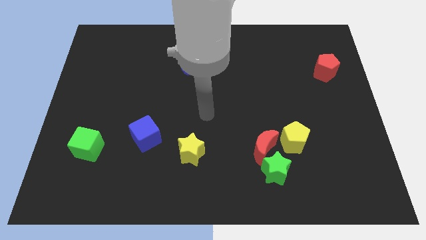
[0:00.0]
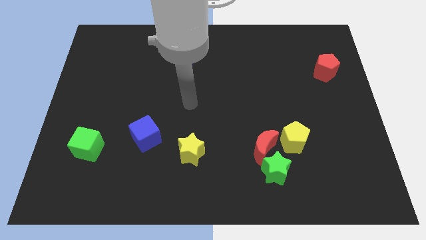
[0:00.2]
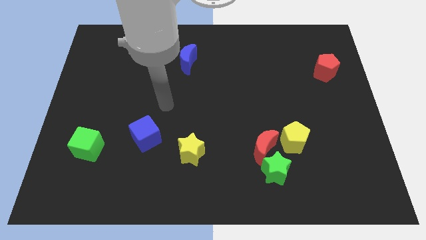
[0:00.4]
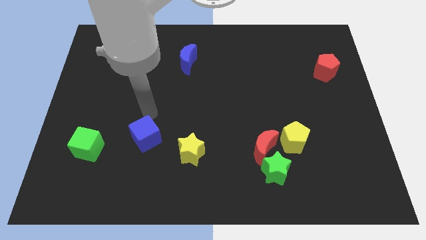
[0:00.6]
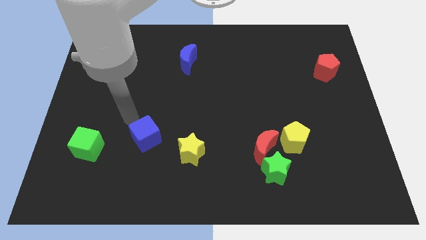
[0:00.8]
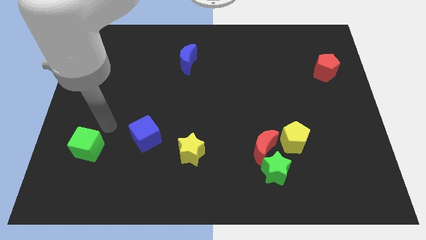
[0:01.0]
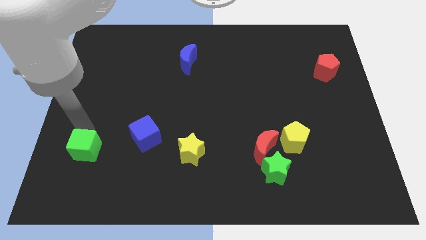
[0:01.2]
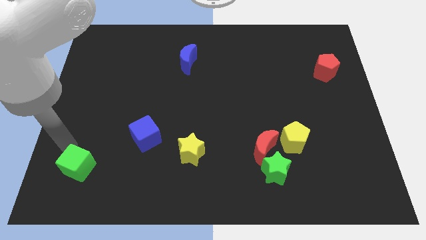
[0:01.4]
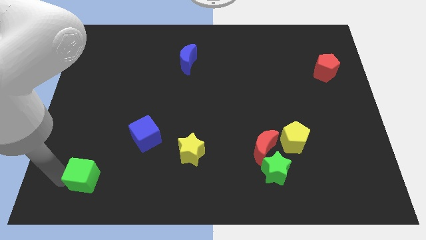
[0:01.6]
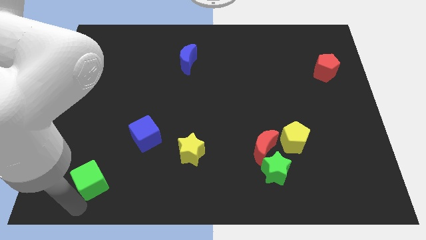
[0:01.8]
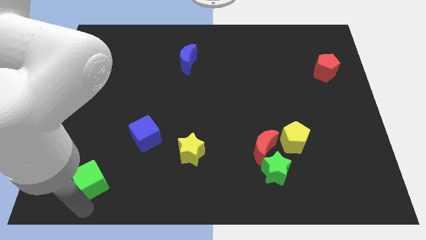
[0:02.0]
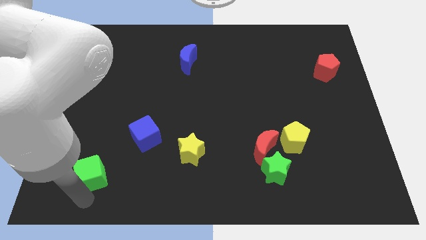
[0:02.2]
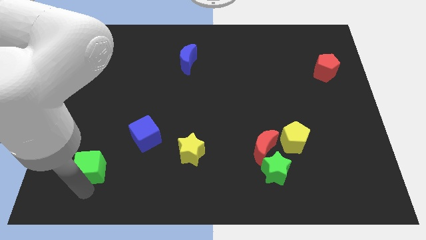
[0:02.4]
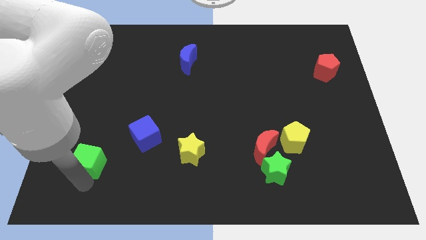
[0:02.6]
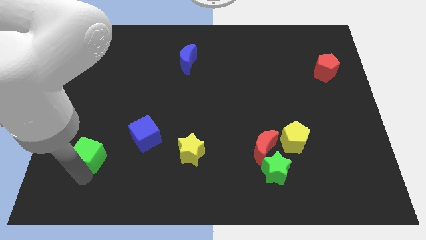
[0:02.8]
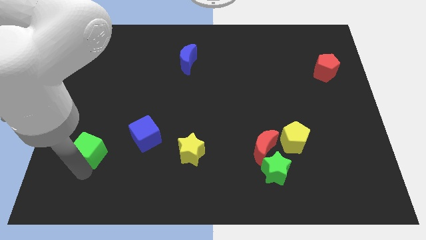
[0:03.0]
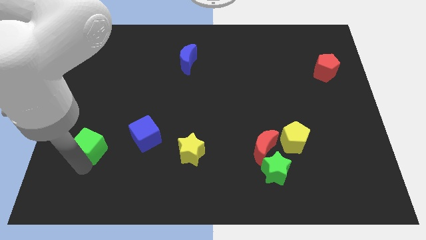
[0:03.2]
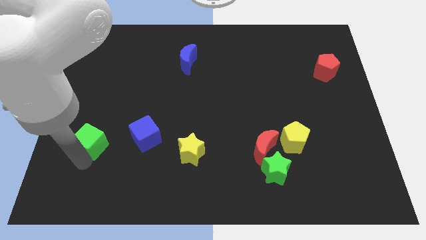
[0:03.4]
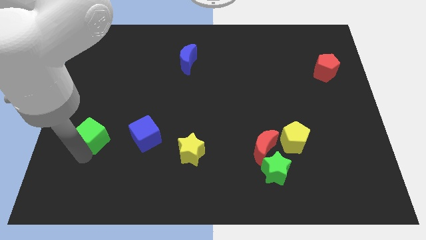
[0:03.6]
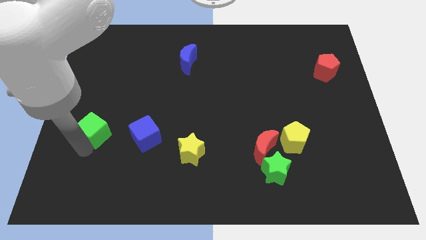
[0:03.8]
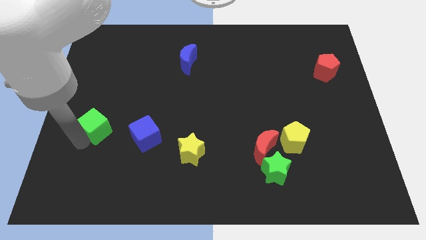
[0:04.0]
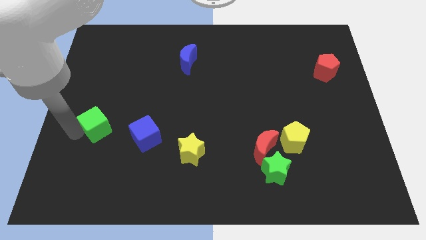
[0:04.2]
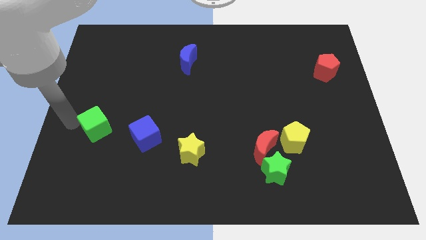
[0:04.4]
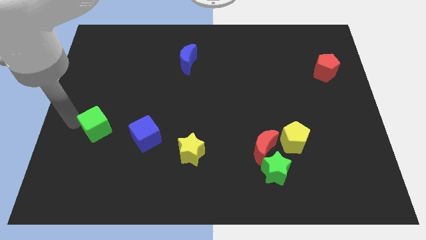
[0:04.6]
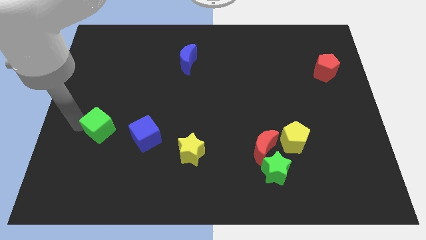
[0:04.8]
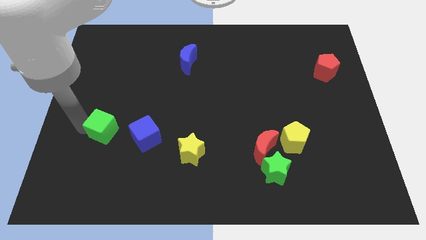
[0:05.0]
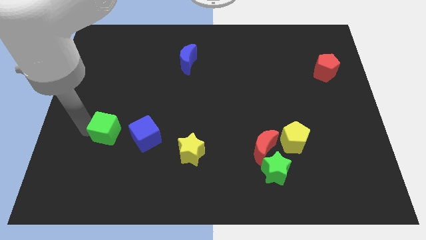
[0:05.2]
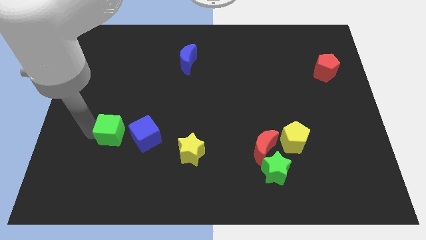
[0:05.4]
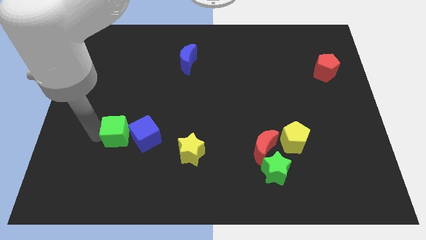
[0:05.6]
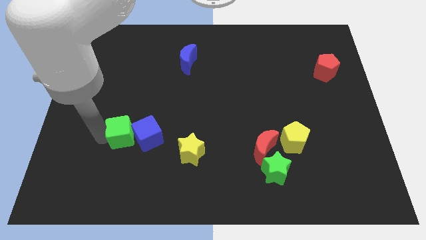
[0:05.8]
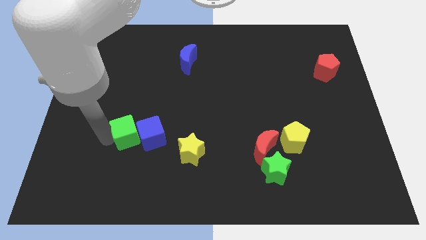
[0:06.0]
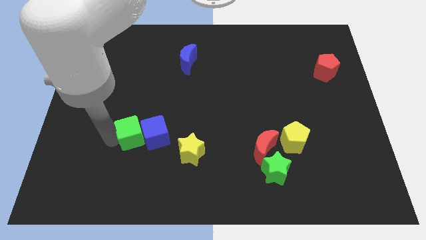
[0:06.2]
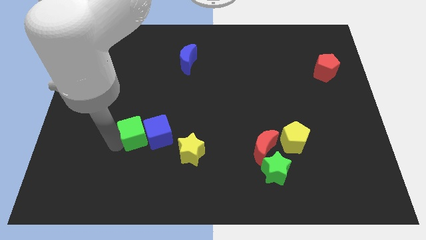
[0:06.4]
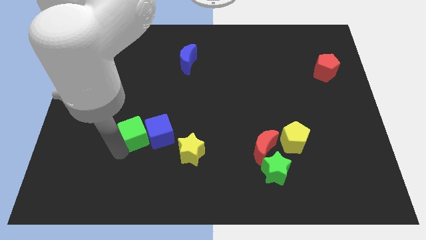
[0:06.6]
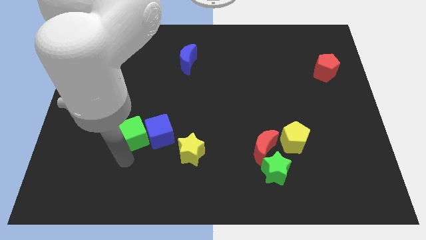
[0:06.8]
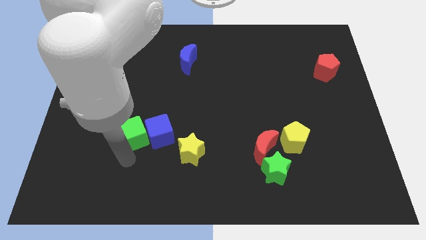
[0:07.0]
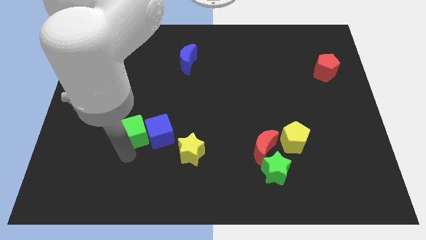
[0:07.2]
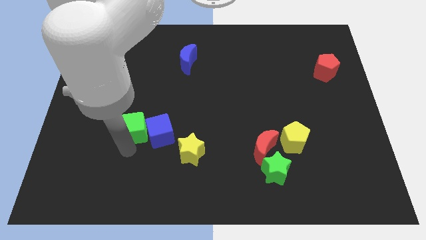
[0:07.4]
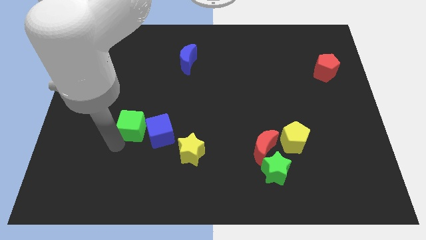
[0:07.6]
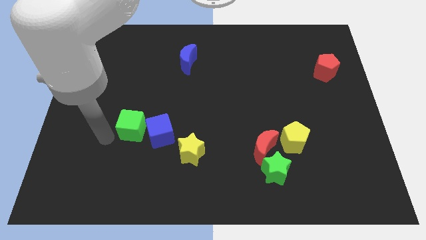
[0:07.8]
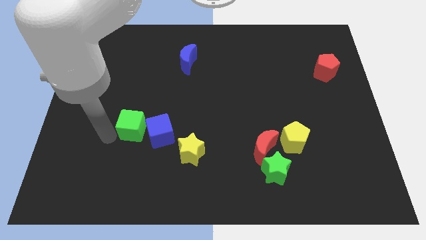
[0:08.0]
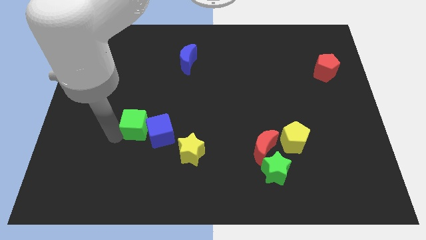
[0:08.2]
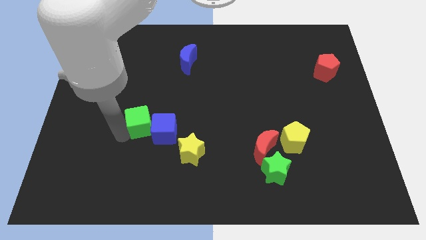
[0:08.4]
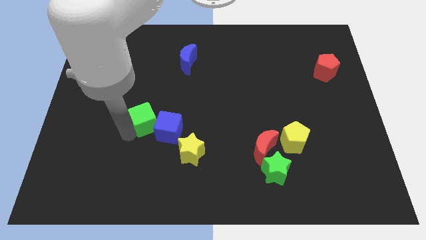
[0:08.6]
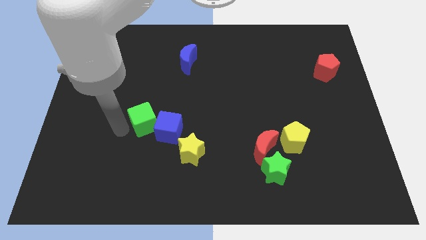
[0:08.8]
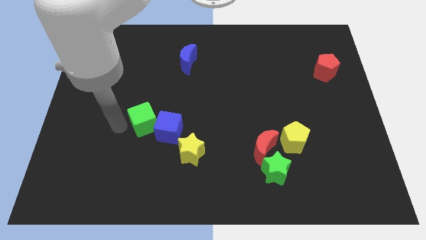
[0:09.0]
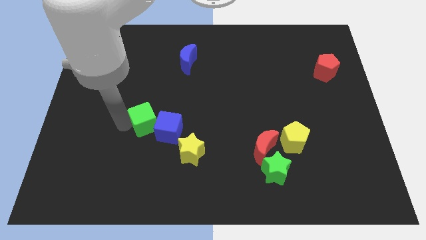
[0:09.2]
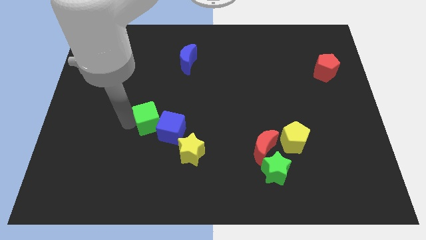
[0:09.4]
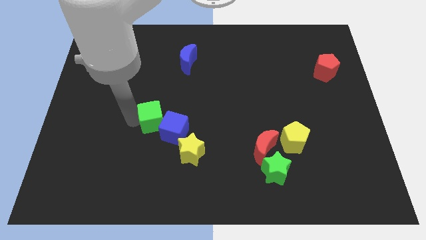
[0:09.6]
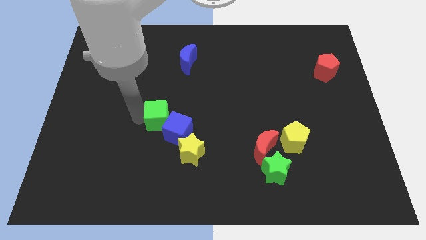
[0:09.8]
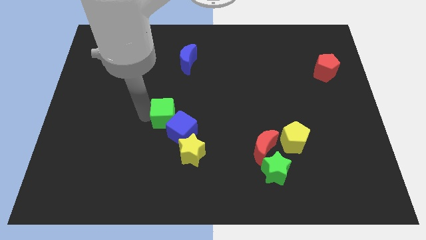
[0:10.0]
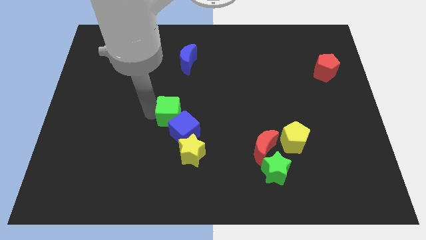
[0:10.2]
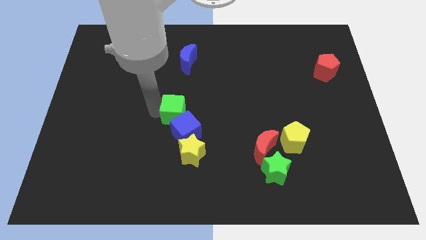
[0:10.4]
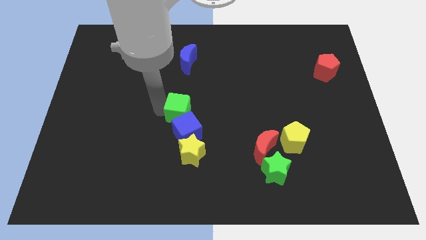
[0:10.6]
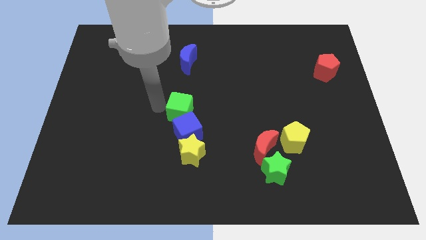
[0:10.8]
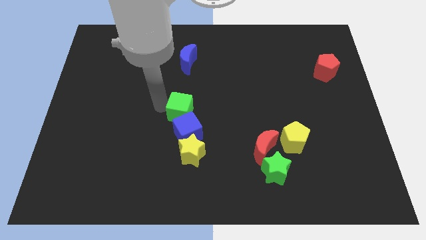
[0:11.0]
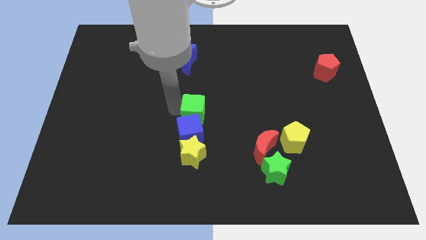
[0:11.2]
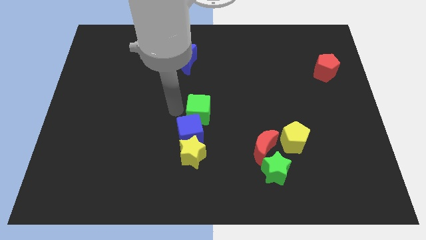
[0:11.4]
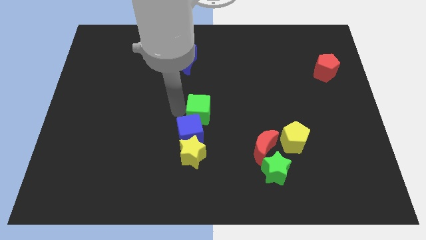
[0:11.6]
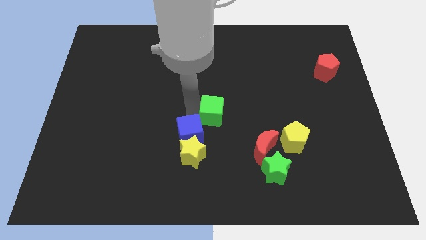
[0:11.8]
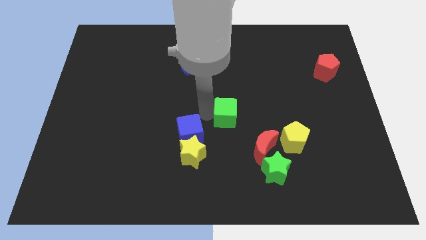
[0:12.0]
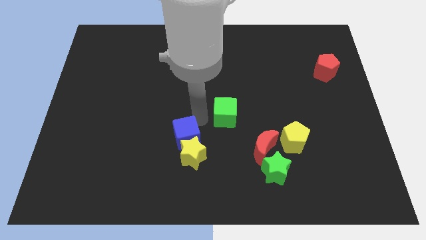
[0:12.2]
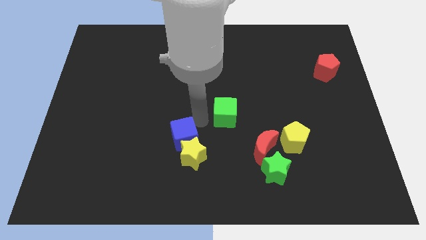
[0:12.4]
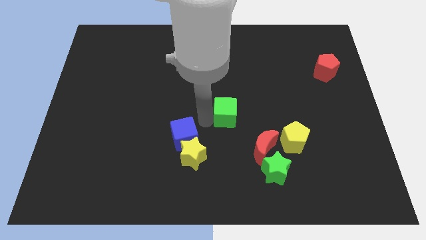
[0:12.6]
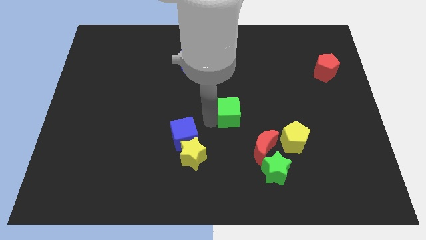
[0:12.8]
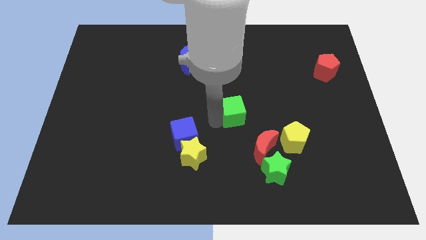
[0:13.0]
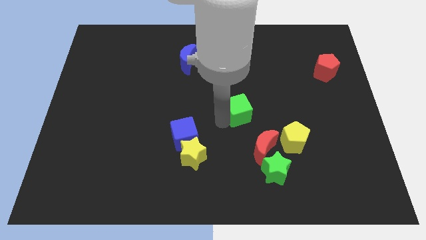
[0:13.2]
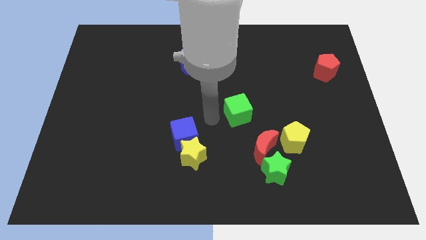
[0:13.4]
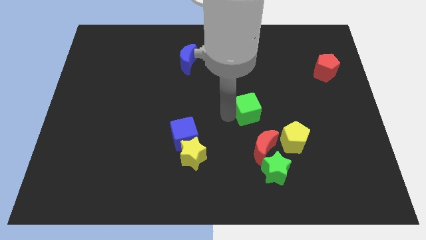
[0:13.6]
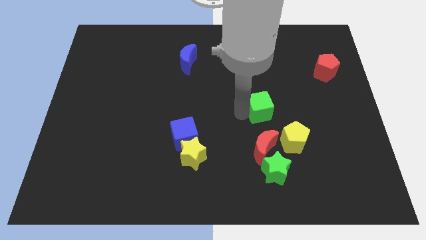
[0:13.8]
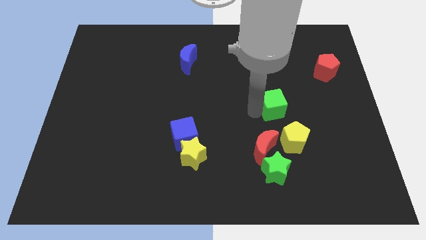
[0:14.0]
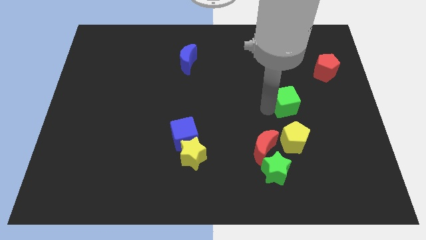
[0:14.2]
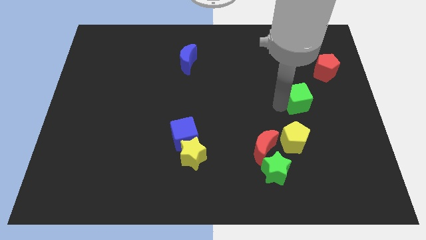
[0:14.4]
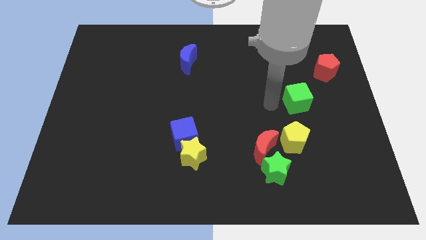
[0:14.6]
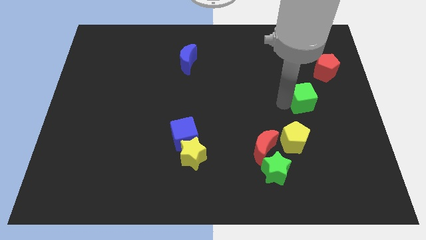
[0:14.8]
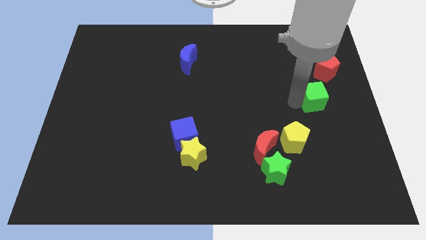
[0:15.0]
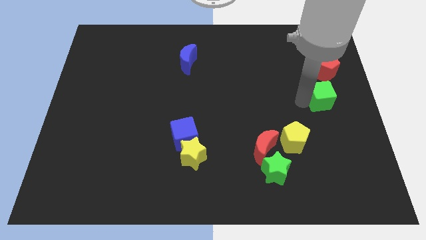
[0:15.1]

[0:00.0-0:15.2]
push the green cube to the right side
